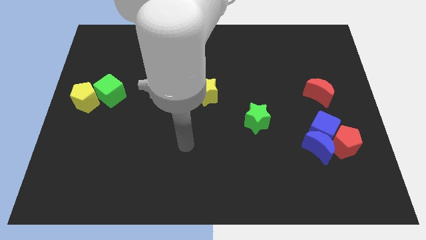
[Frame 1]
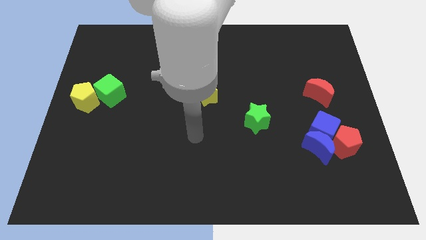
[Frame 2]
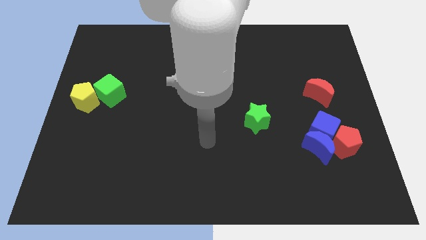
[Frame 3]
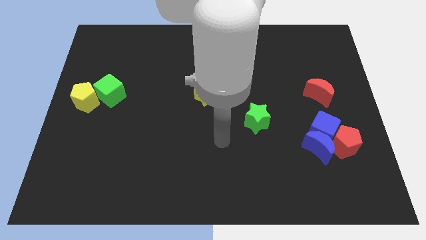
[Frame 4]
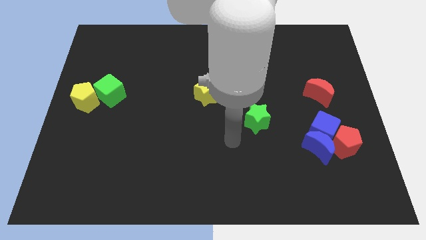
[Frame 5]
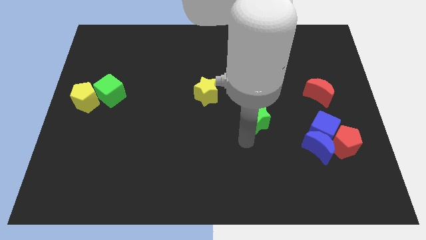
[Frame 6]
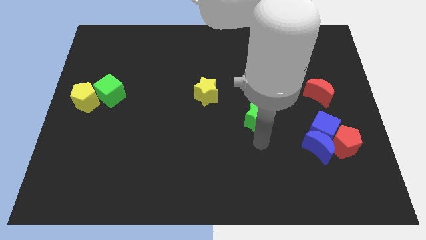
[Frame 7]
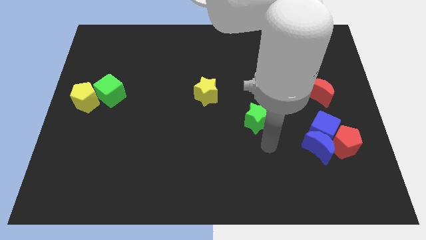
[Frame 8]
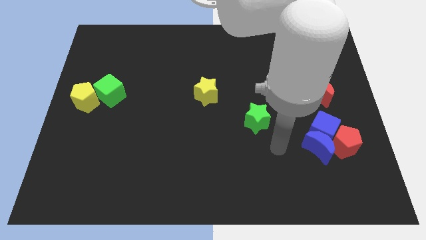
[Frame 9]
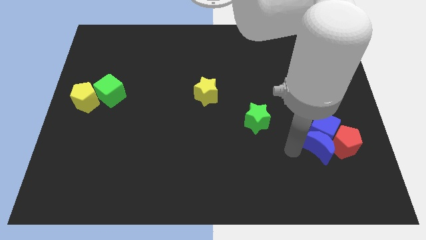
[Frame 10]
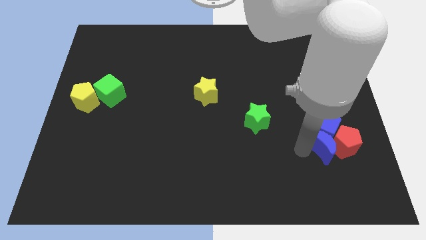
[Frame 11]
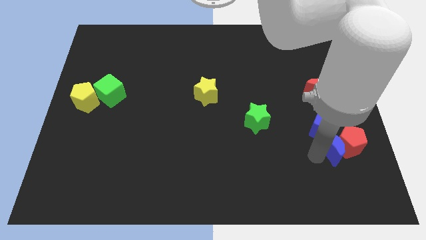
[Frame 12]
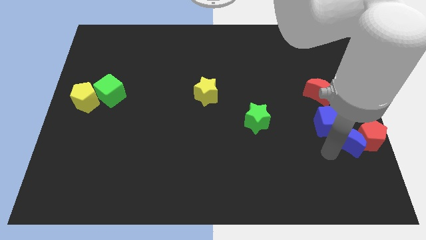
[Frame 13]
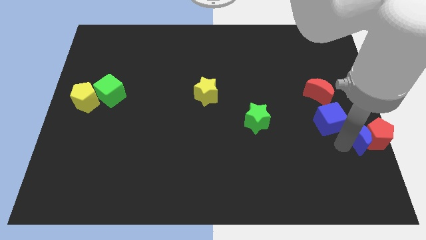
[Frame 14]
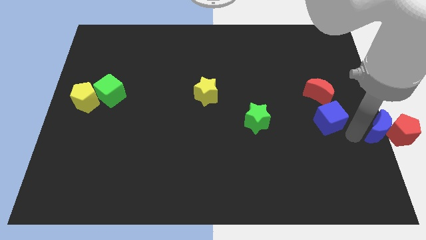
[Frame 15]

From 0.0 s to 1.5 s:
move the blue cube away from the blue moon and red pentagon

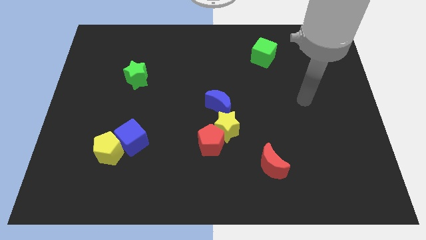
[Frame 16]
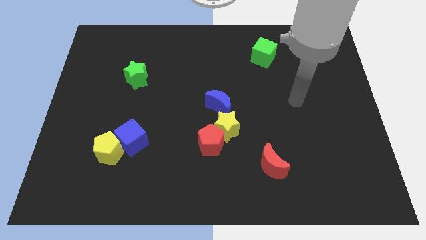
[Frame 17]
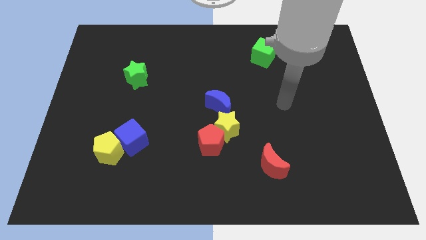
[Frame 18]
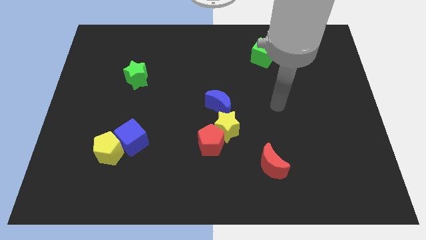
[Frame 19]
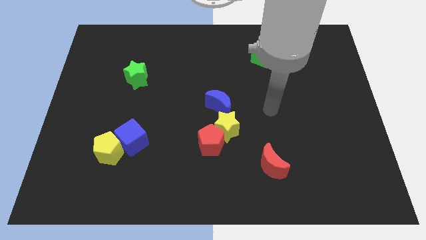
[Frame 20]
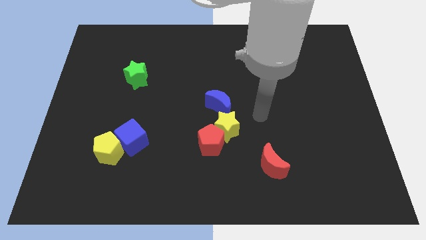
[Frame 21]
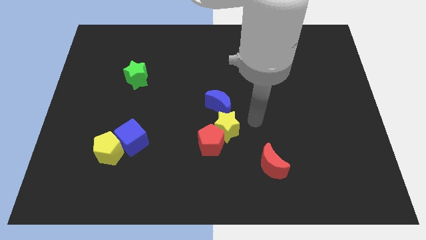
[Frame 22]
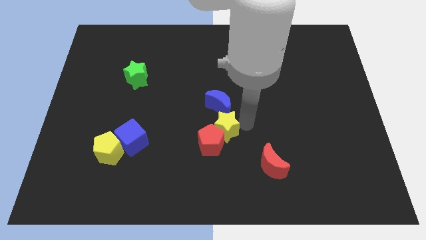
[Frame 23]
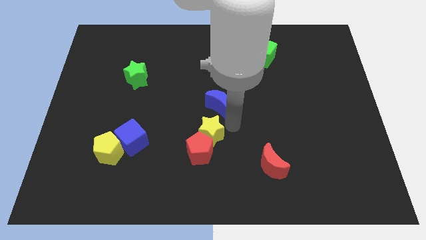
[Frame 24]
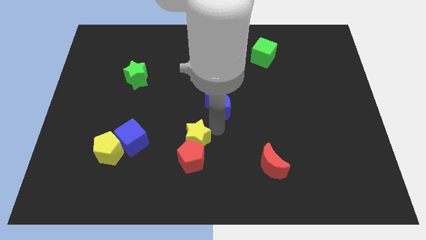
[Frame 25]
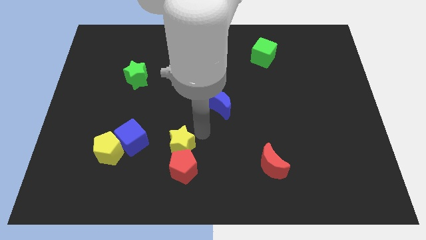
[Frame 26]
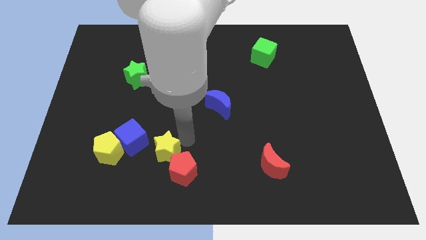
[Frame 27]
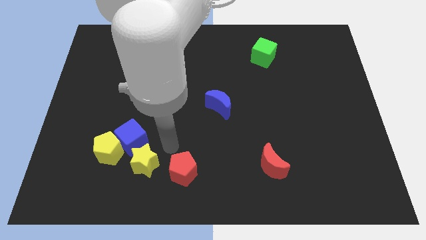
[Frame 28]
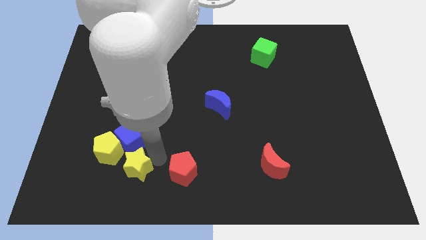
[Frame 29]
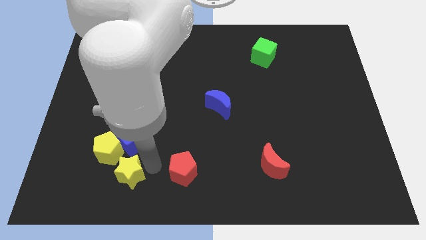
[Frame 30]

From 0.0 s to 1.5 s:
move the red pentagon away from the yellow star

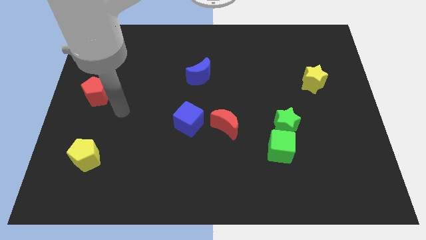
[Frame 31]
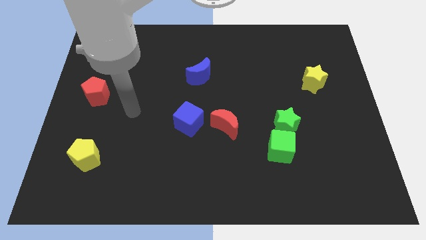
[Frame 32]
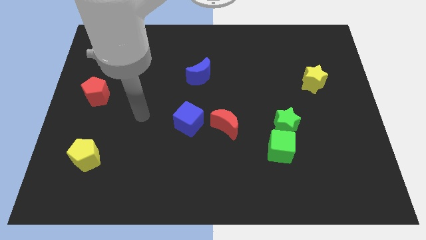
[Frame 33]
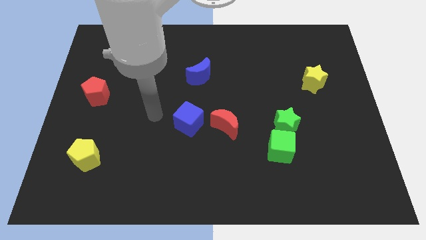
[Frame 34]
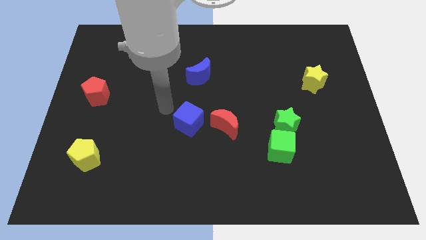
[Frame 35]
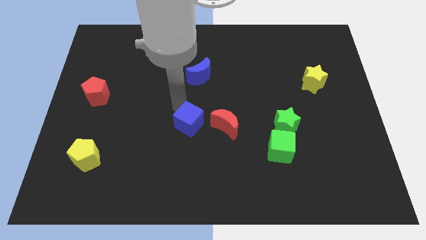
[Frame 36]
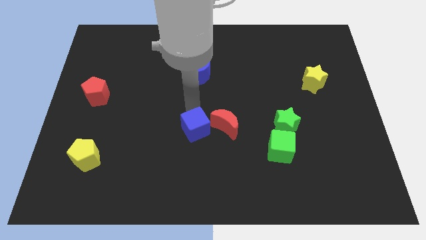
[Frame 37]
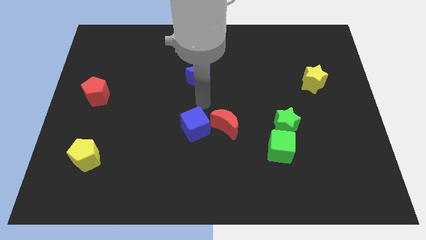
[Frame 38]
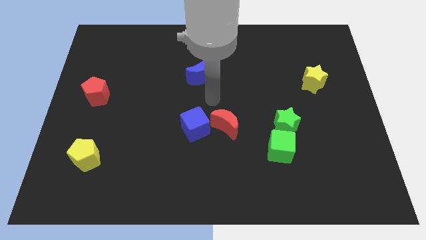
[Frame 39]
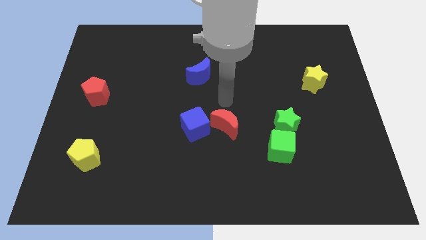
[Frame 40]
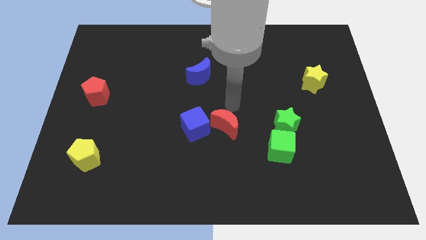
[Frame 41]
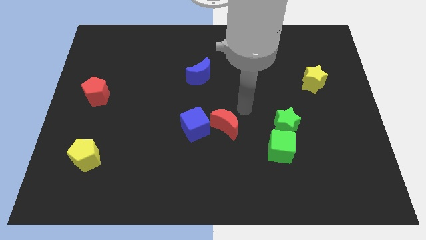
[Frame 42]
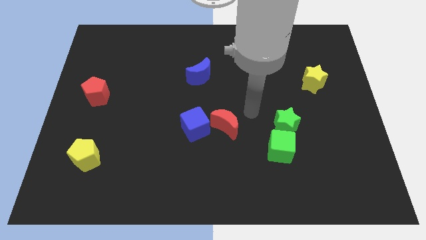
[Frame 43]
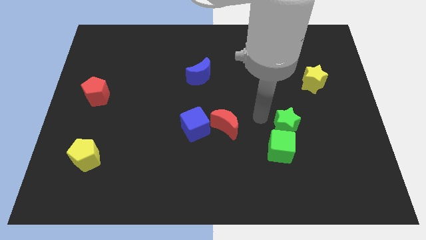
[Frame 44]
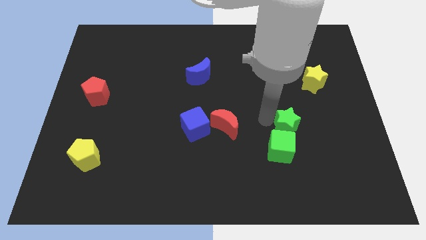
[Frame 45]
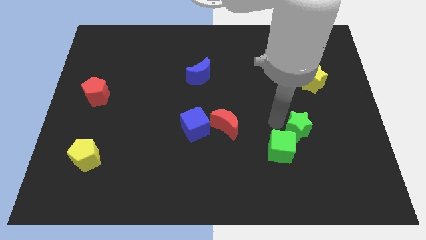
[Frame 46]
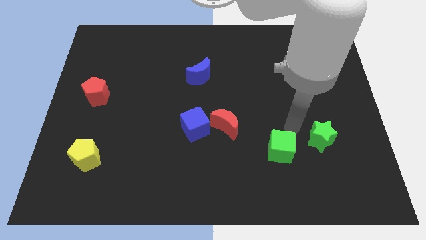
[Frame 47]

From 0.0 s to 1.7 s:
pull the green cube apart from the green star

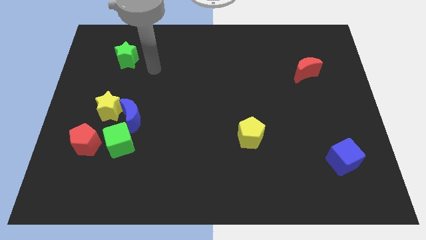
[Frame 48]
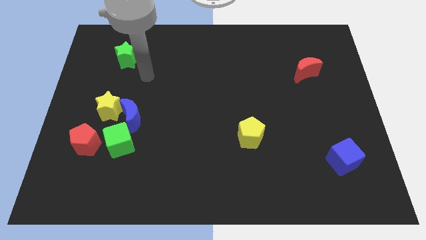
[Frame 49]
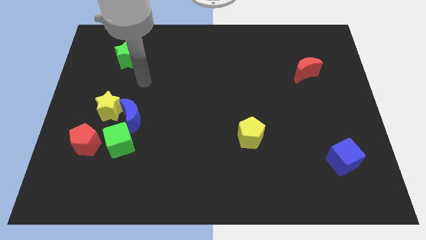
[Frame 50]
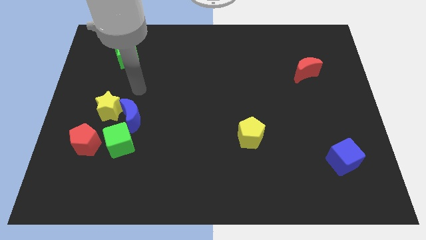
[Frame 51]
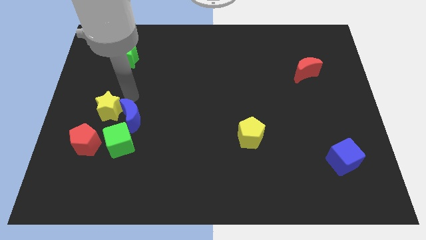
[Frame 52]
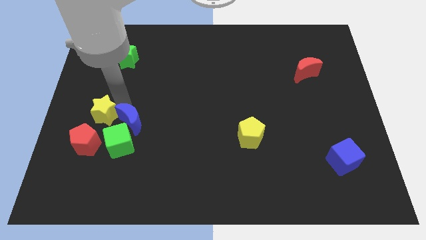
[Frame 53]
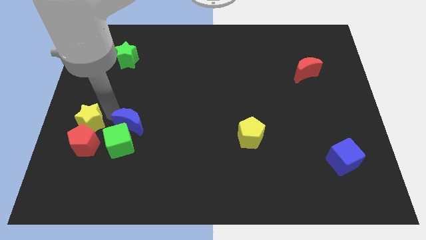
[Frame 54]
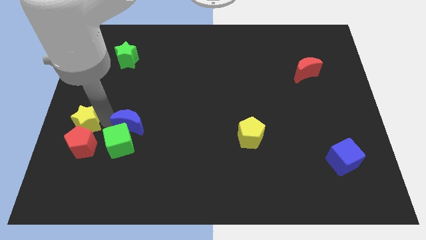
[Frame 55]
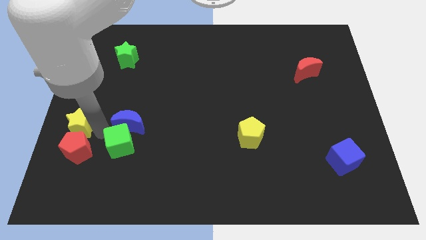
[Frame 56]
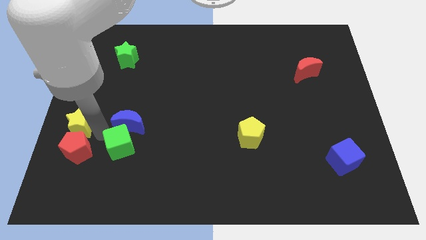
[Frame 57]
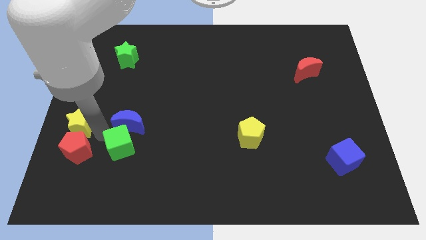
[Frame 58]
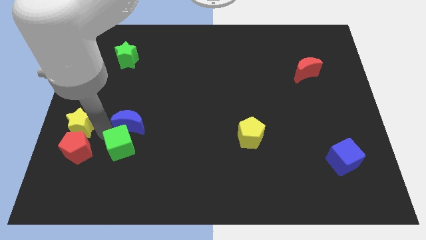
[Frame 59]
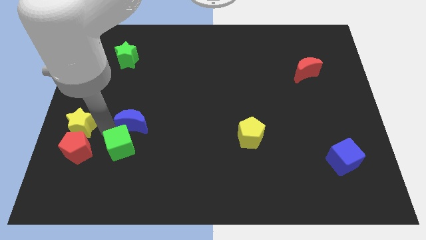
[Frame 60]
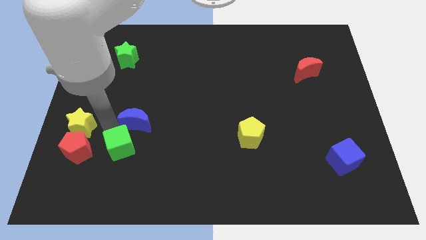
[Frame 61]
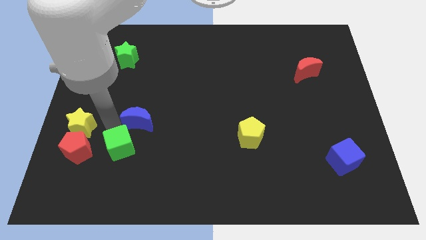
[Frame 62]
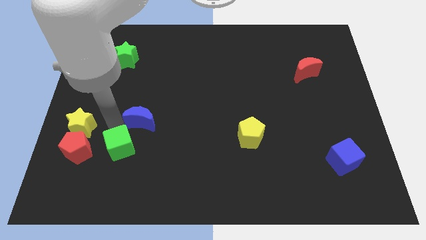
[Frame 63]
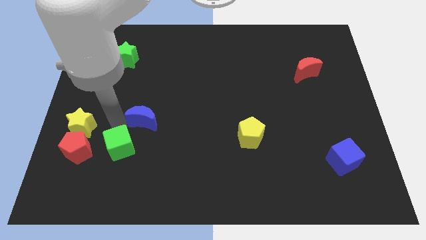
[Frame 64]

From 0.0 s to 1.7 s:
move the blue moon away from the yellow star and green cube

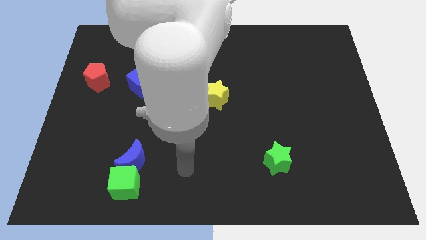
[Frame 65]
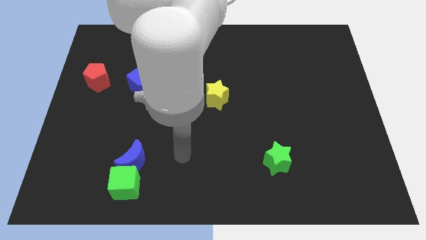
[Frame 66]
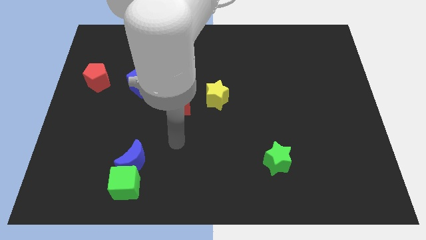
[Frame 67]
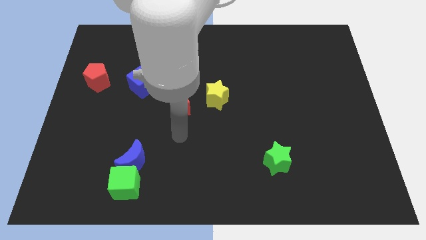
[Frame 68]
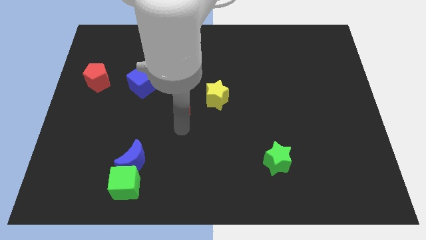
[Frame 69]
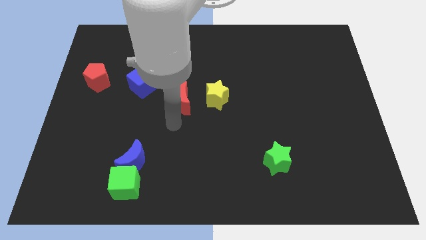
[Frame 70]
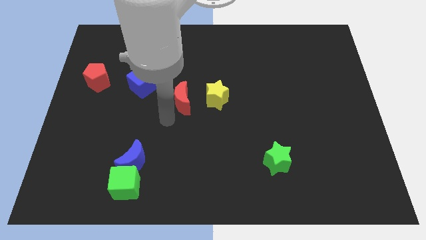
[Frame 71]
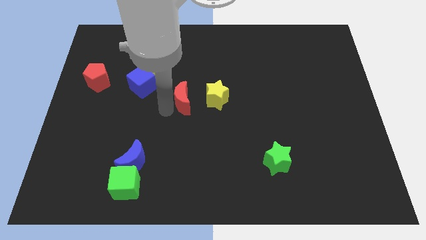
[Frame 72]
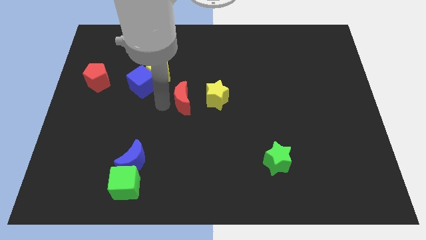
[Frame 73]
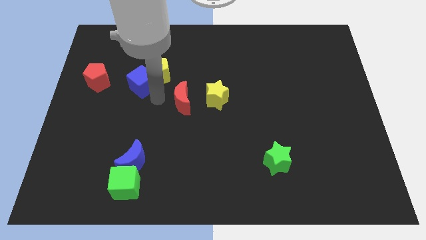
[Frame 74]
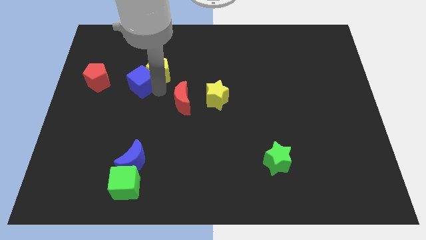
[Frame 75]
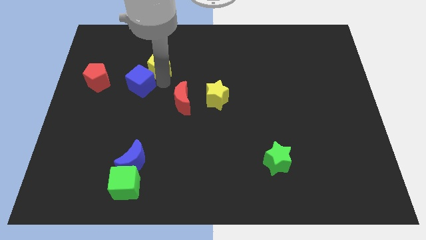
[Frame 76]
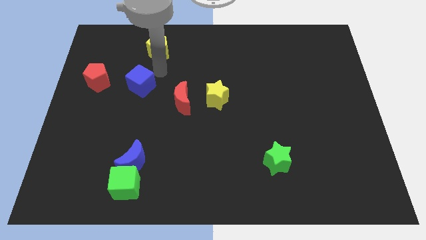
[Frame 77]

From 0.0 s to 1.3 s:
separate the blue cube from the yellow pentagon

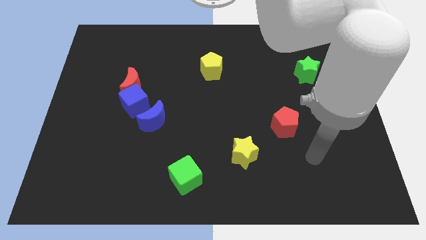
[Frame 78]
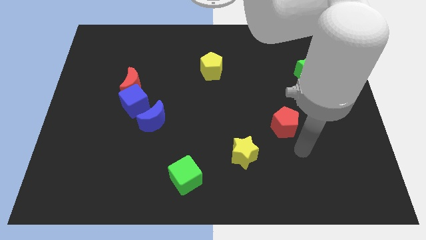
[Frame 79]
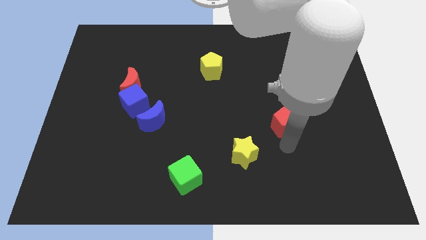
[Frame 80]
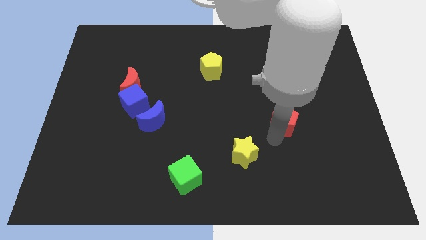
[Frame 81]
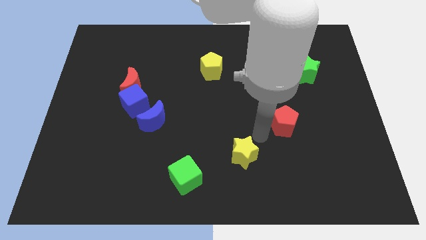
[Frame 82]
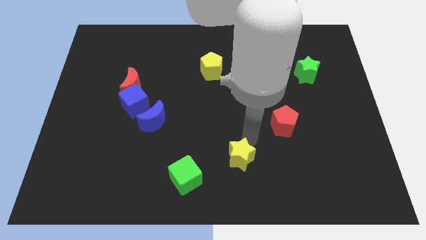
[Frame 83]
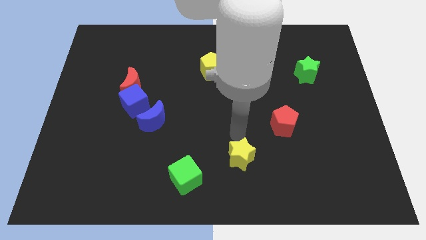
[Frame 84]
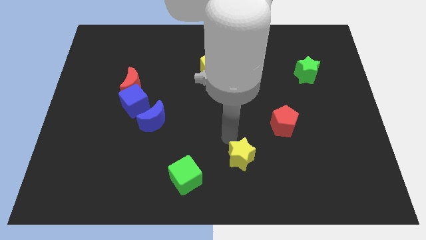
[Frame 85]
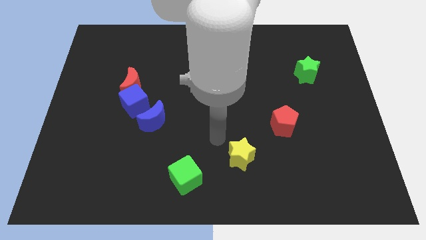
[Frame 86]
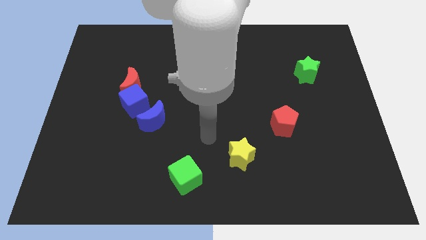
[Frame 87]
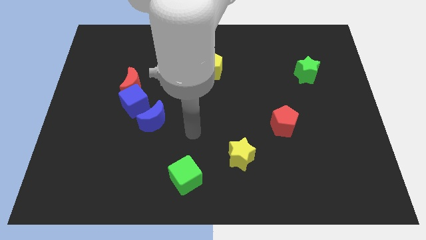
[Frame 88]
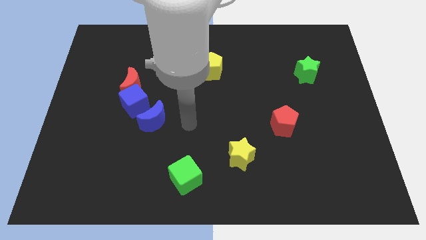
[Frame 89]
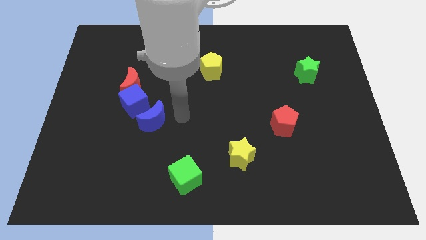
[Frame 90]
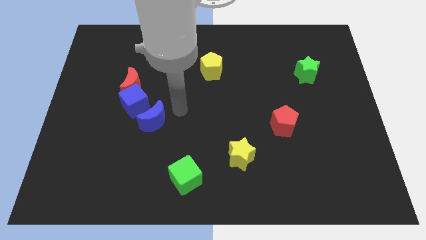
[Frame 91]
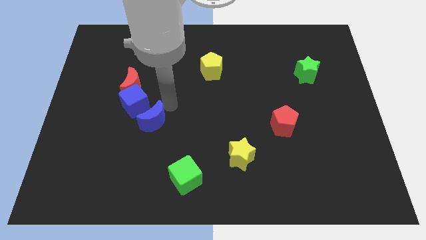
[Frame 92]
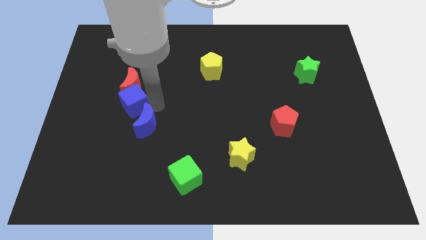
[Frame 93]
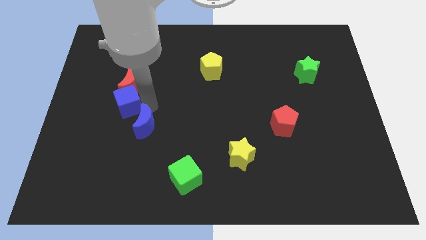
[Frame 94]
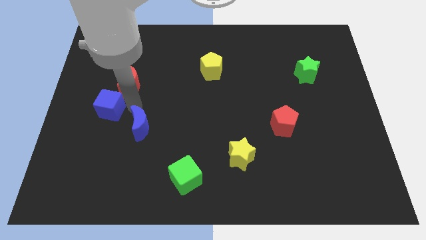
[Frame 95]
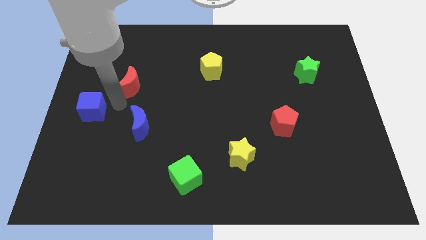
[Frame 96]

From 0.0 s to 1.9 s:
pull the red moon apart from the blue cube
